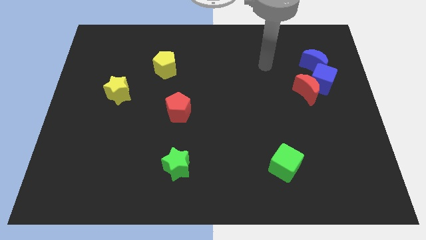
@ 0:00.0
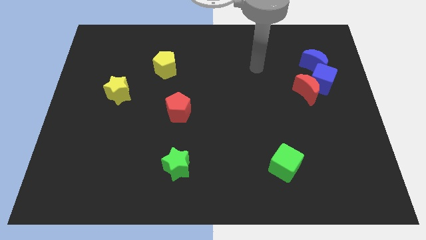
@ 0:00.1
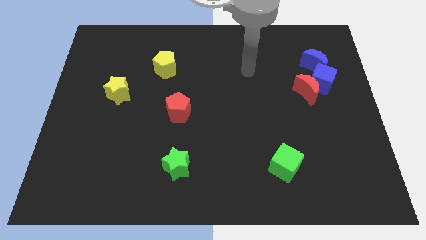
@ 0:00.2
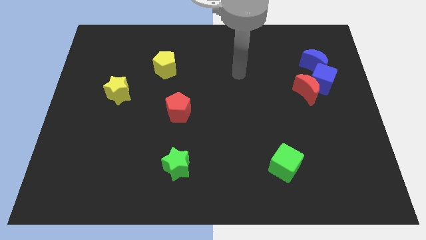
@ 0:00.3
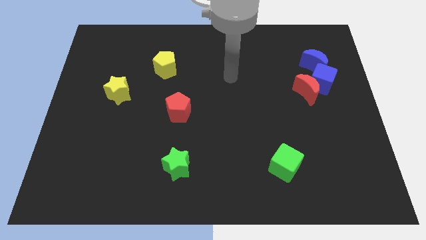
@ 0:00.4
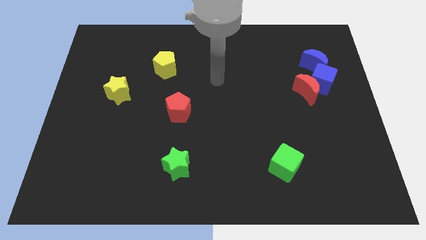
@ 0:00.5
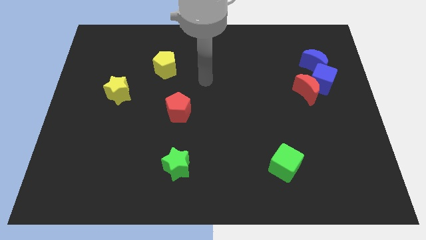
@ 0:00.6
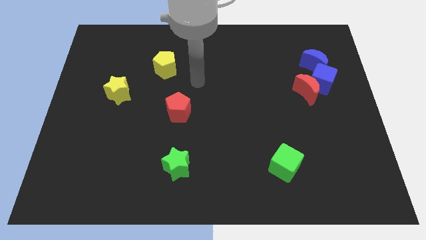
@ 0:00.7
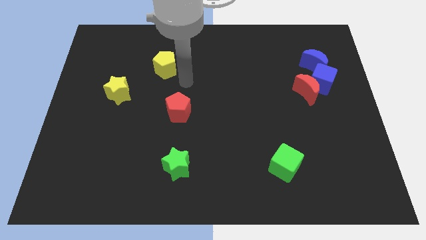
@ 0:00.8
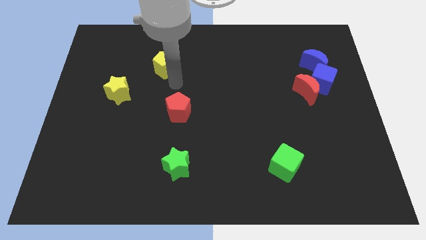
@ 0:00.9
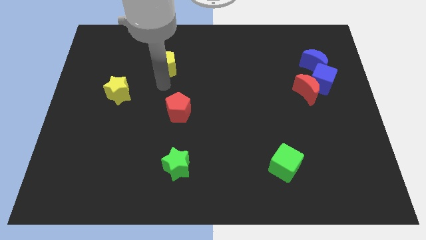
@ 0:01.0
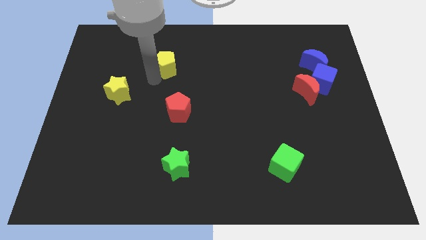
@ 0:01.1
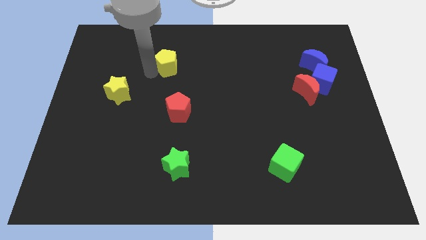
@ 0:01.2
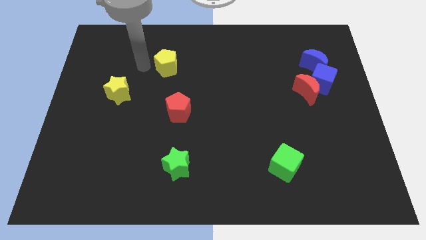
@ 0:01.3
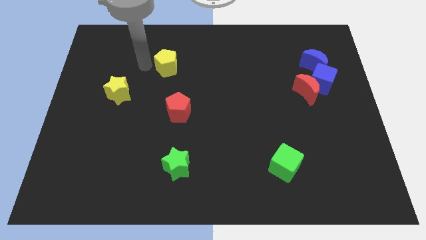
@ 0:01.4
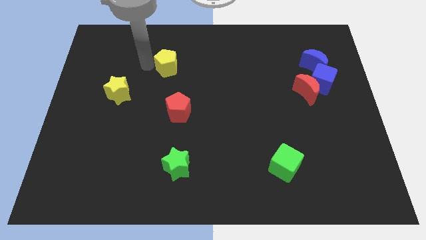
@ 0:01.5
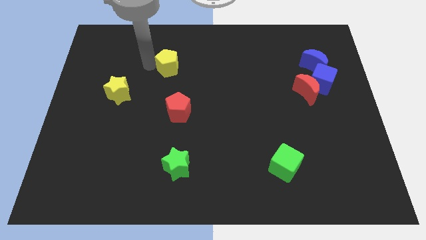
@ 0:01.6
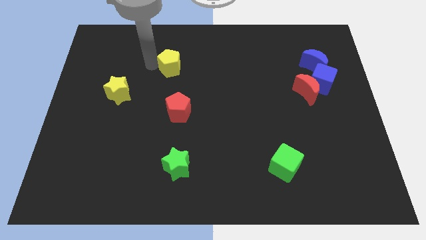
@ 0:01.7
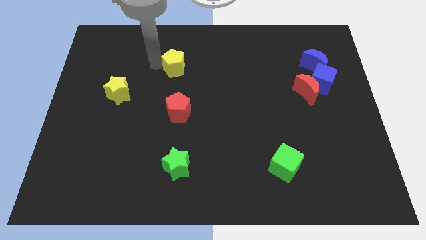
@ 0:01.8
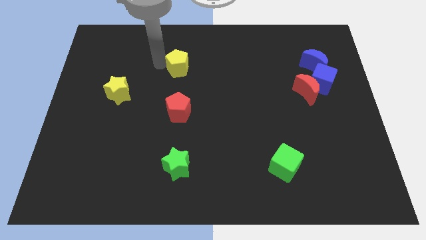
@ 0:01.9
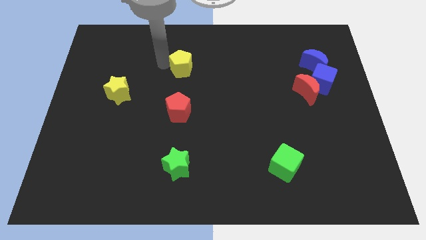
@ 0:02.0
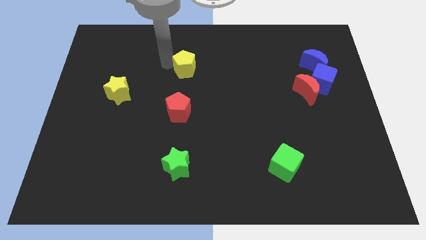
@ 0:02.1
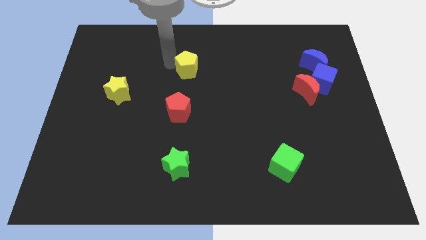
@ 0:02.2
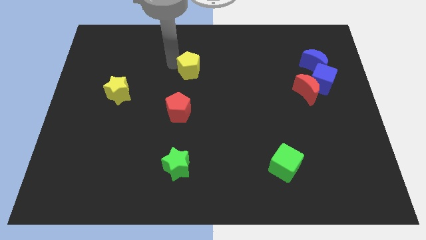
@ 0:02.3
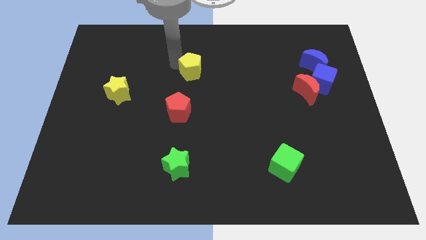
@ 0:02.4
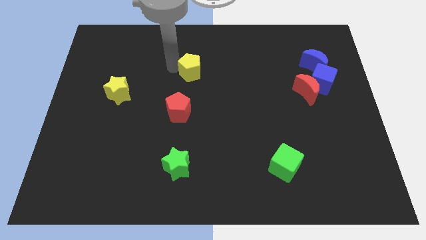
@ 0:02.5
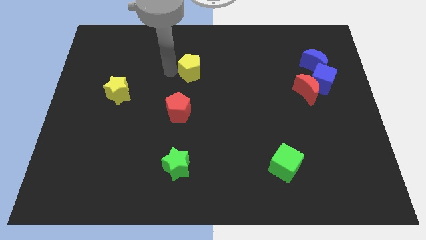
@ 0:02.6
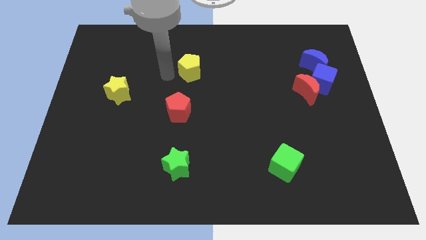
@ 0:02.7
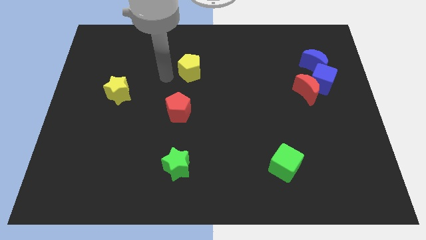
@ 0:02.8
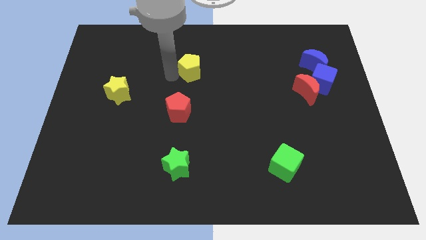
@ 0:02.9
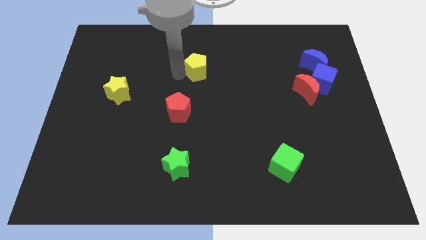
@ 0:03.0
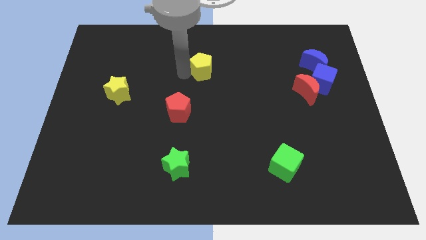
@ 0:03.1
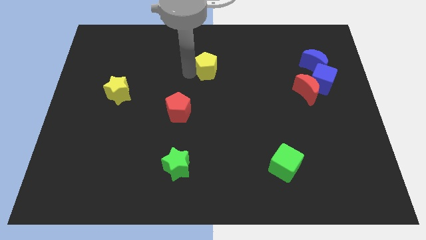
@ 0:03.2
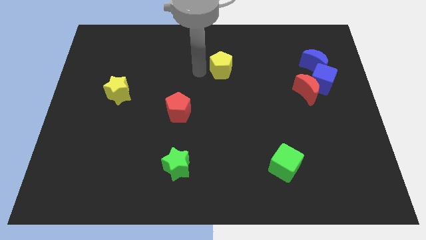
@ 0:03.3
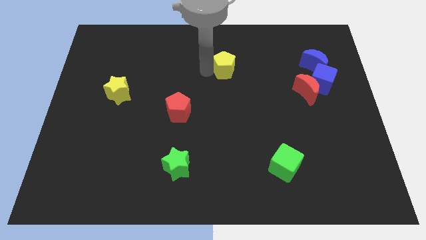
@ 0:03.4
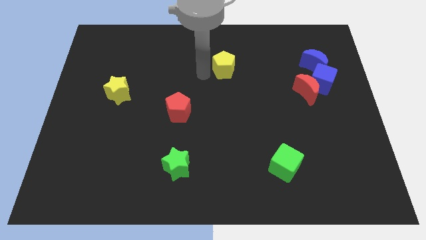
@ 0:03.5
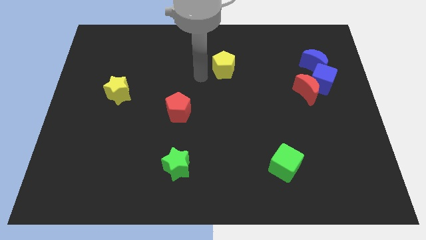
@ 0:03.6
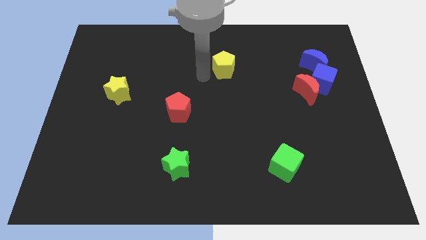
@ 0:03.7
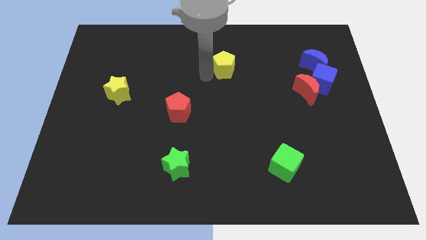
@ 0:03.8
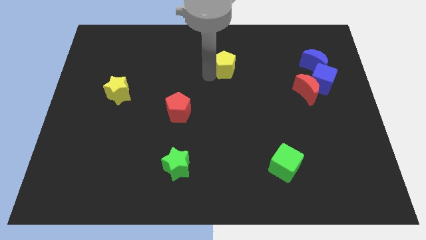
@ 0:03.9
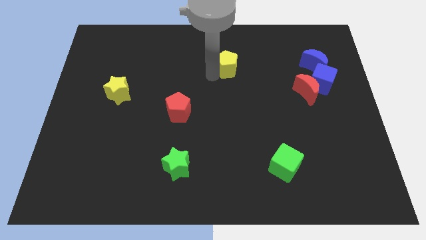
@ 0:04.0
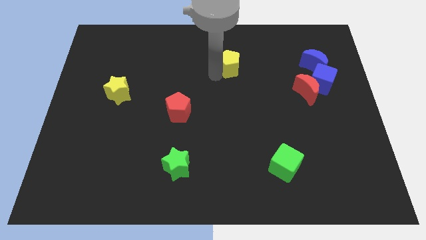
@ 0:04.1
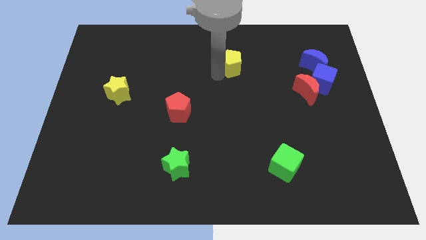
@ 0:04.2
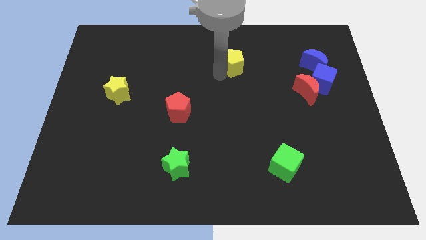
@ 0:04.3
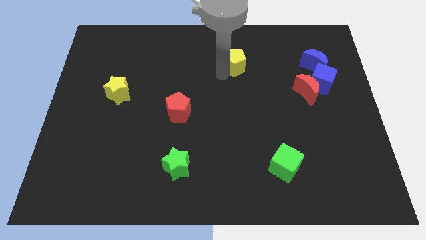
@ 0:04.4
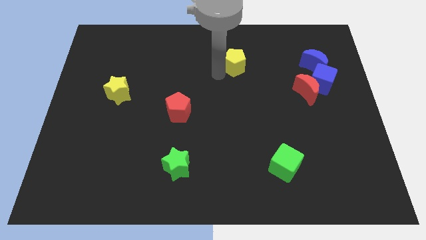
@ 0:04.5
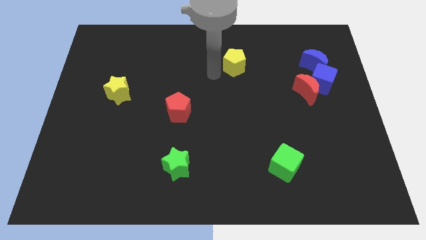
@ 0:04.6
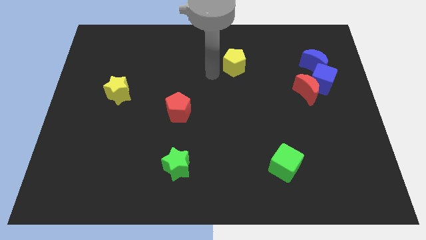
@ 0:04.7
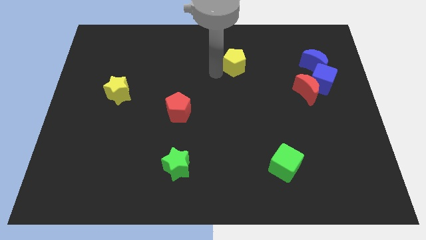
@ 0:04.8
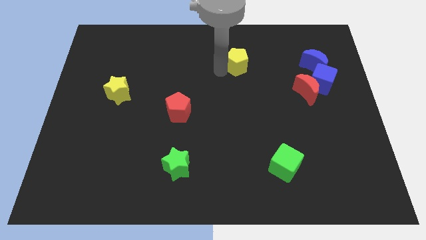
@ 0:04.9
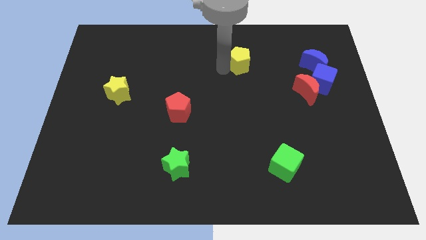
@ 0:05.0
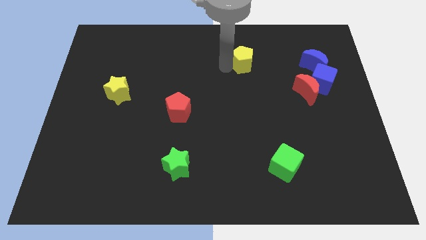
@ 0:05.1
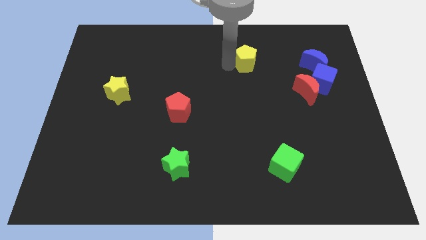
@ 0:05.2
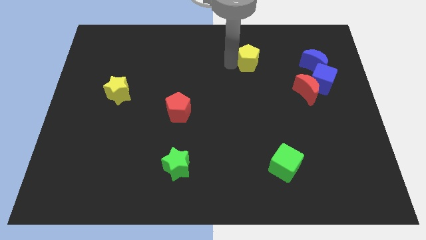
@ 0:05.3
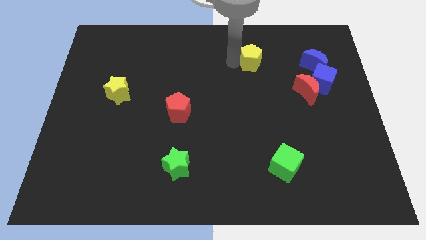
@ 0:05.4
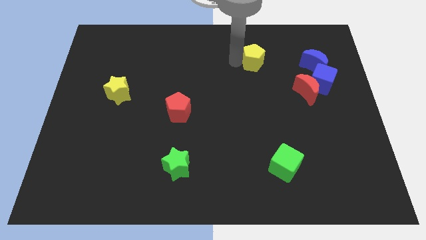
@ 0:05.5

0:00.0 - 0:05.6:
slide the yellow pentagon to the left of the blue moon

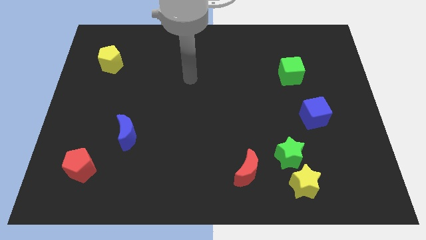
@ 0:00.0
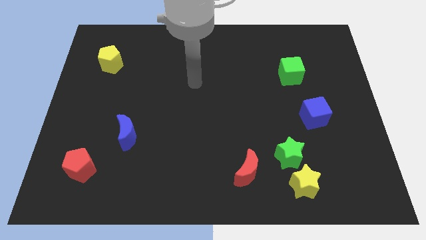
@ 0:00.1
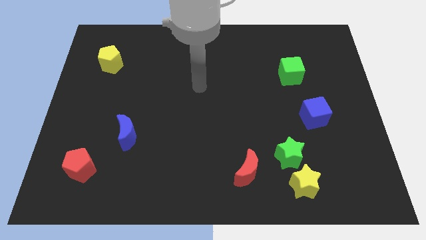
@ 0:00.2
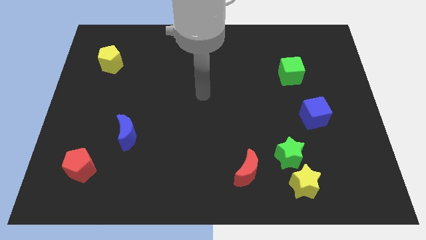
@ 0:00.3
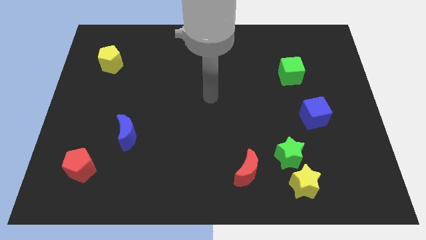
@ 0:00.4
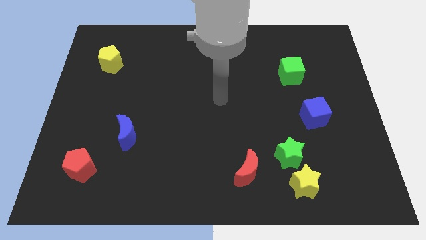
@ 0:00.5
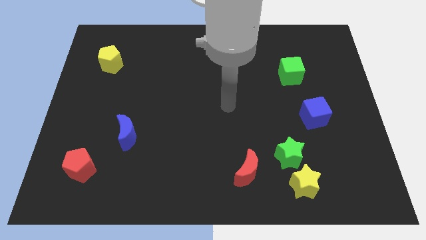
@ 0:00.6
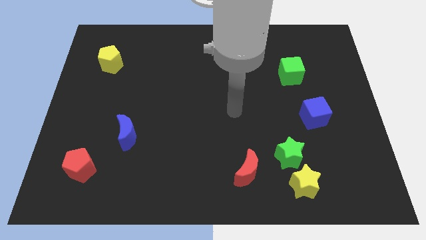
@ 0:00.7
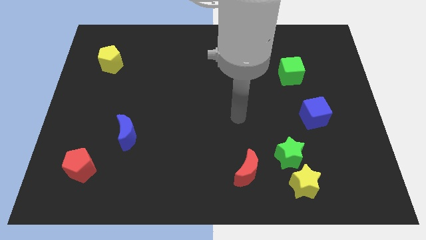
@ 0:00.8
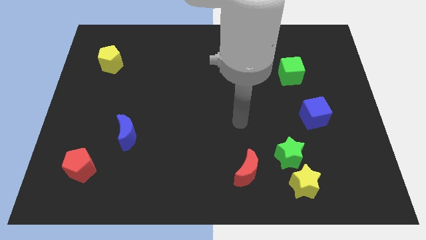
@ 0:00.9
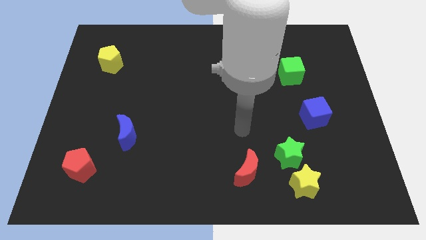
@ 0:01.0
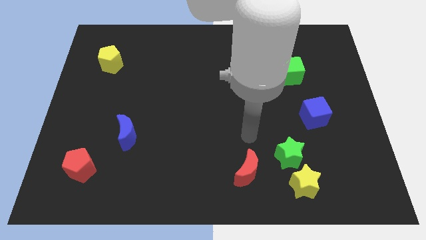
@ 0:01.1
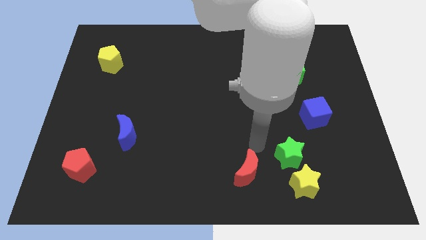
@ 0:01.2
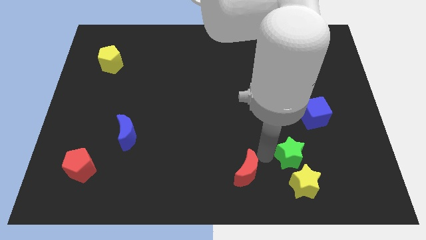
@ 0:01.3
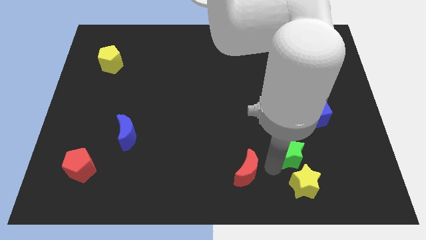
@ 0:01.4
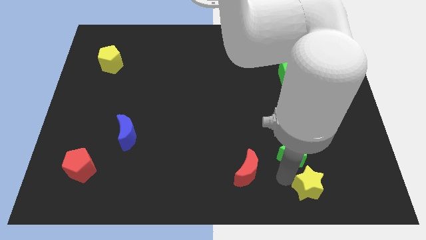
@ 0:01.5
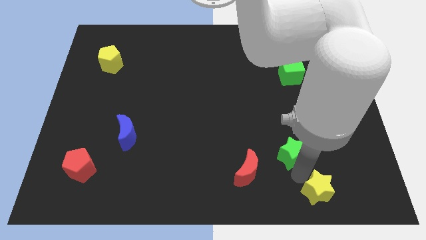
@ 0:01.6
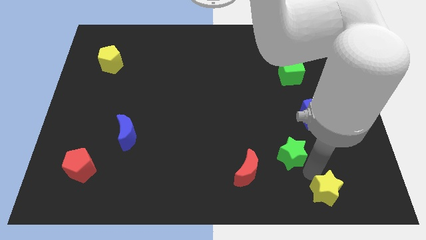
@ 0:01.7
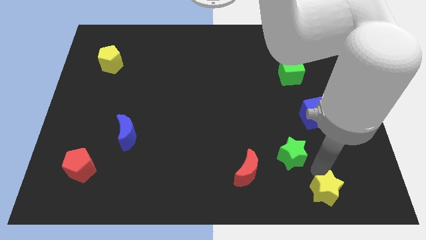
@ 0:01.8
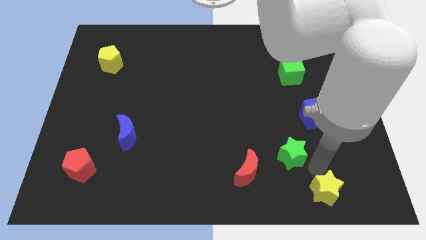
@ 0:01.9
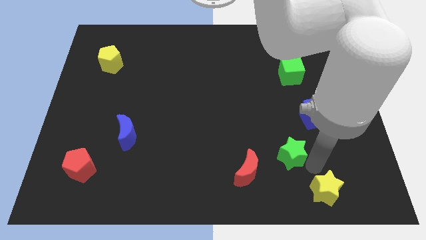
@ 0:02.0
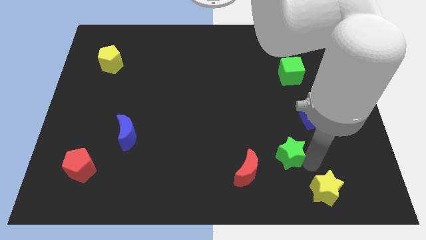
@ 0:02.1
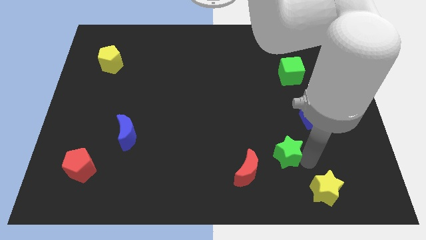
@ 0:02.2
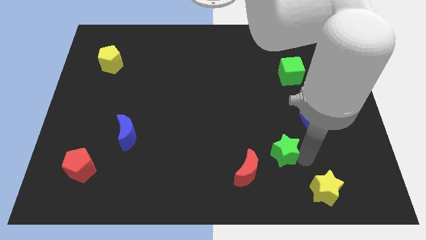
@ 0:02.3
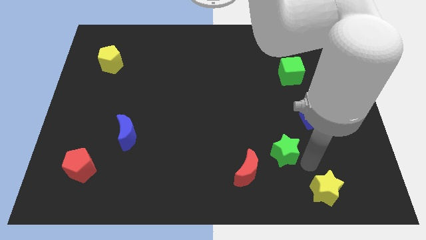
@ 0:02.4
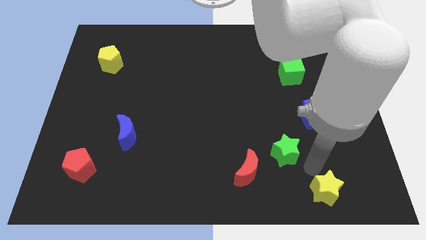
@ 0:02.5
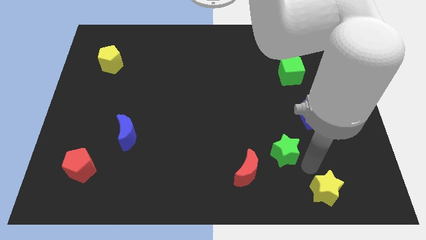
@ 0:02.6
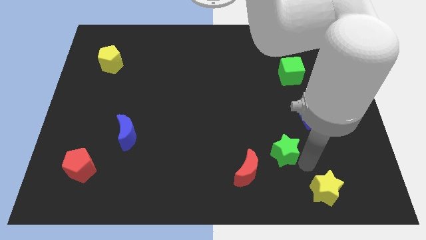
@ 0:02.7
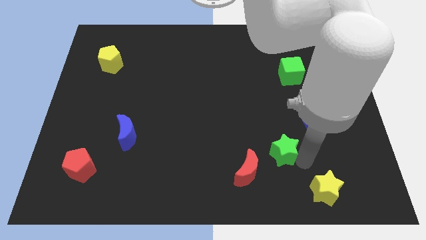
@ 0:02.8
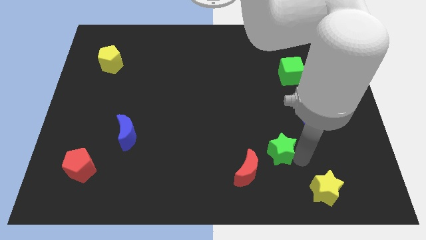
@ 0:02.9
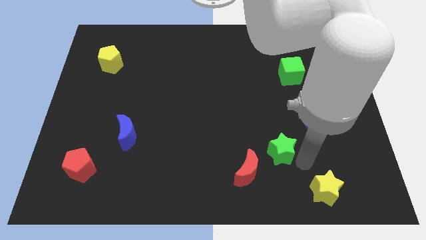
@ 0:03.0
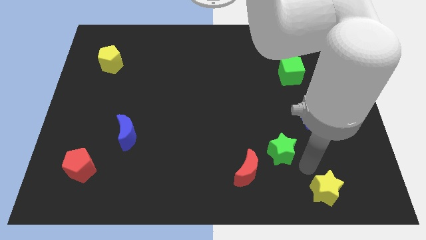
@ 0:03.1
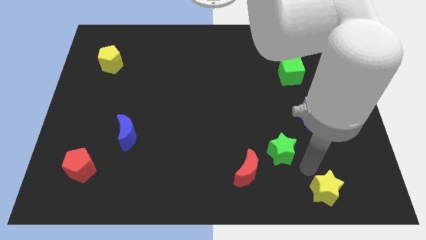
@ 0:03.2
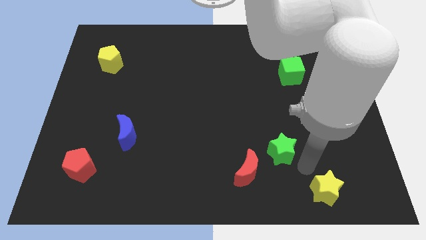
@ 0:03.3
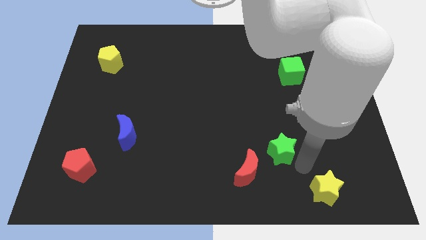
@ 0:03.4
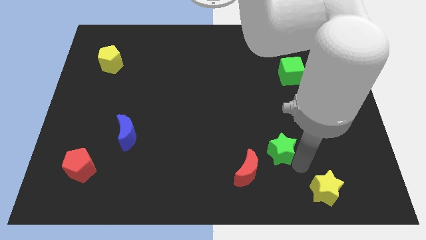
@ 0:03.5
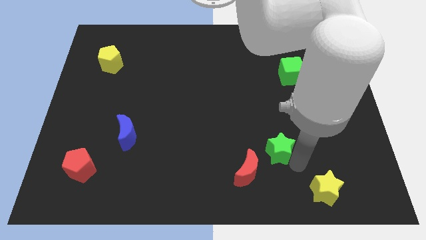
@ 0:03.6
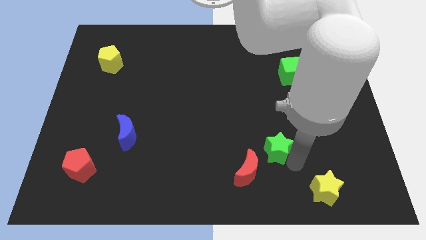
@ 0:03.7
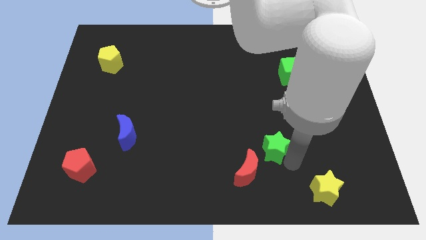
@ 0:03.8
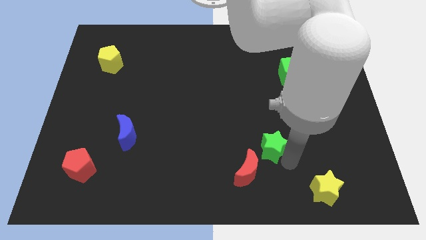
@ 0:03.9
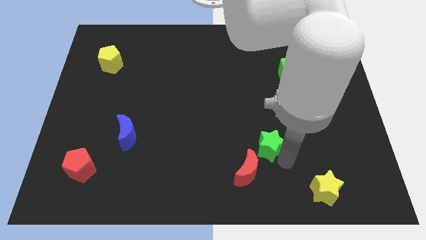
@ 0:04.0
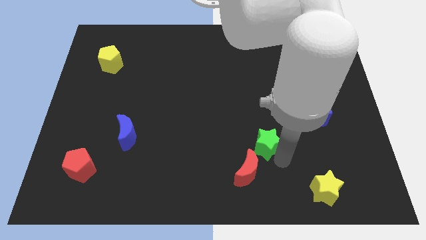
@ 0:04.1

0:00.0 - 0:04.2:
slide the green star to the top of the red moon
